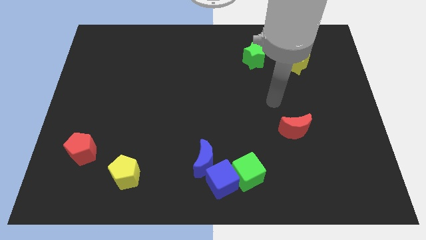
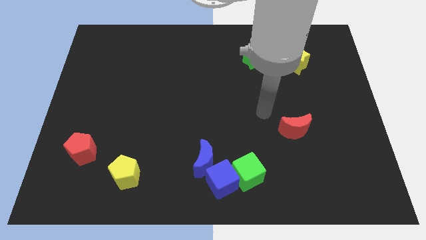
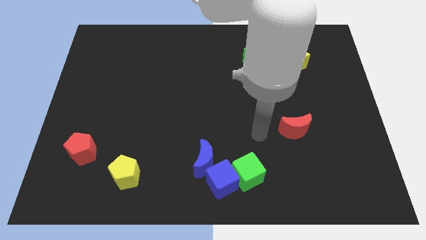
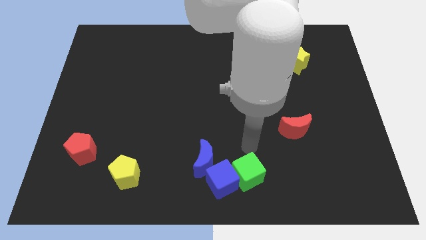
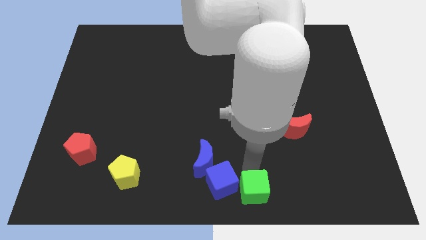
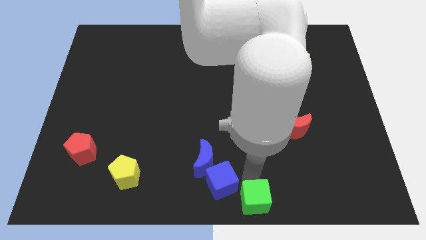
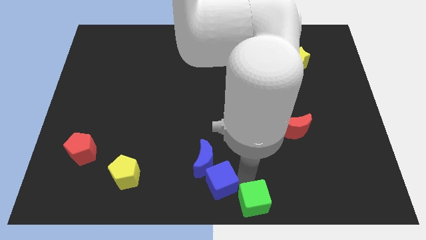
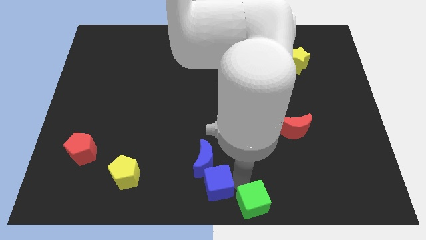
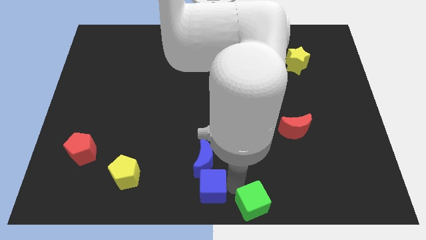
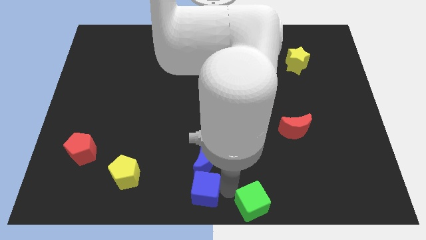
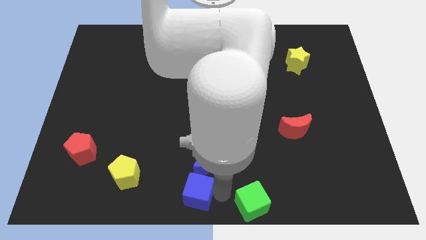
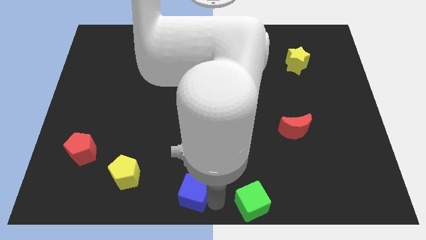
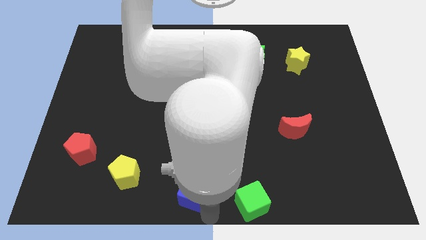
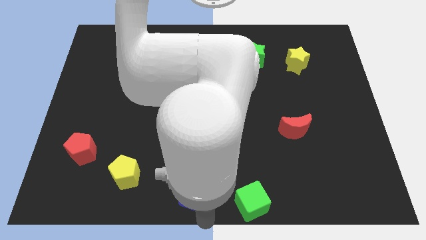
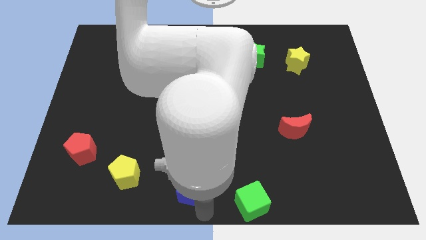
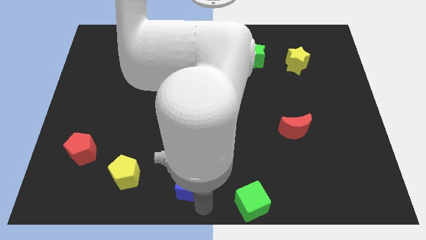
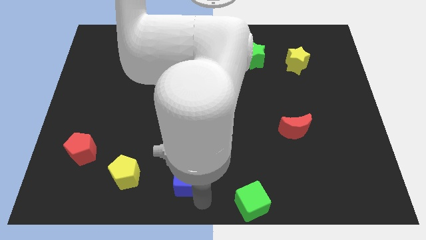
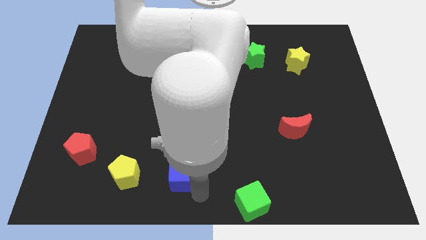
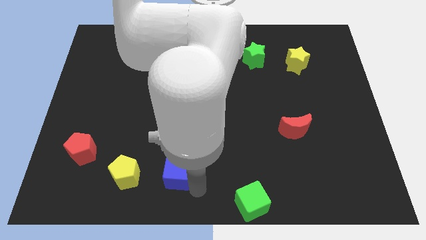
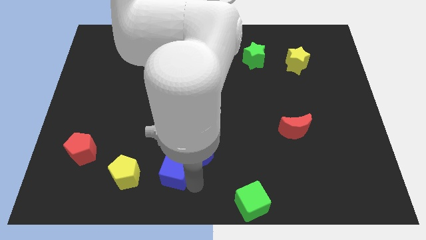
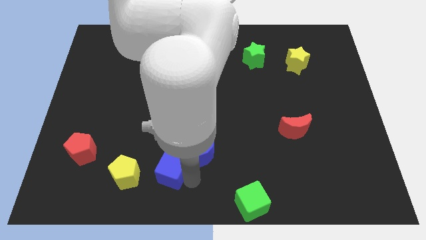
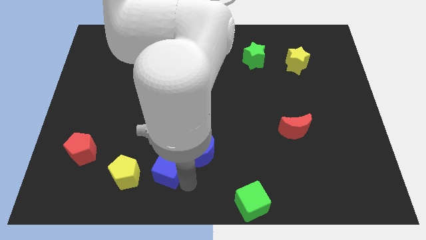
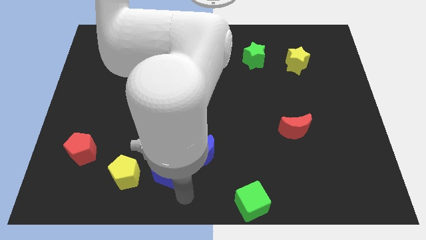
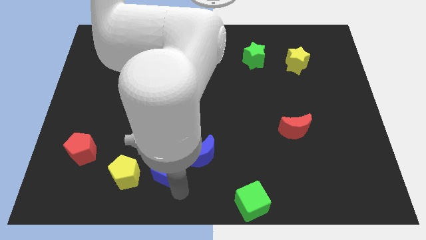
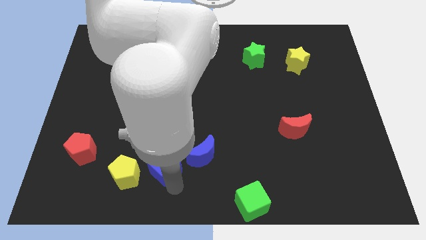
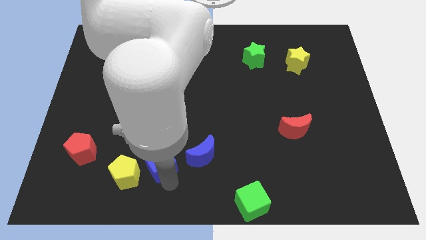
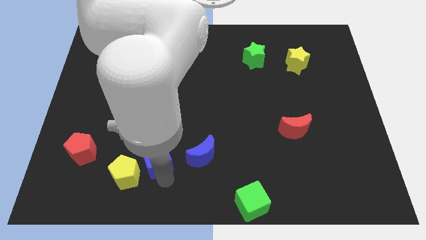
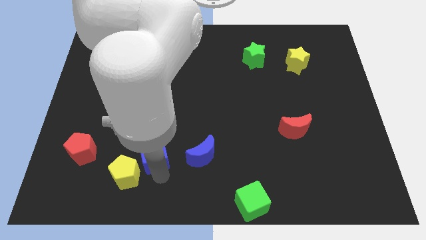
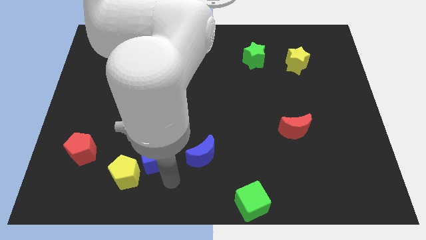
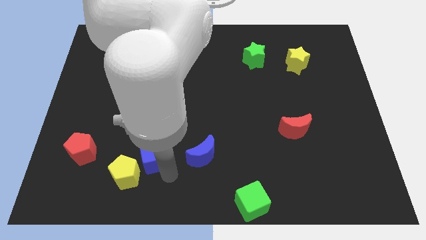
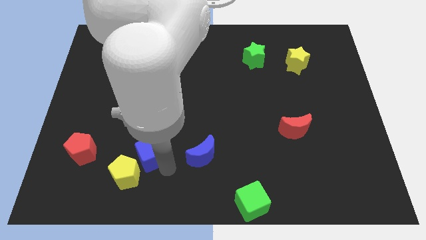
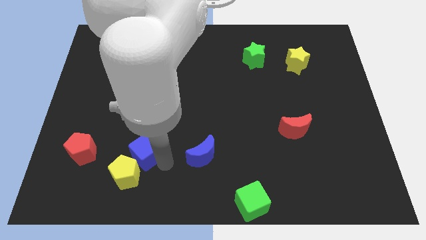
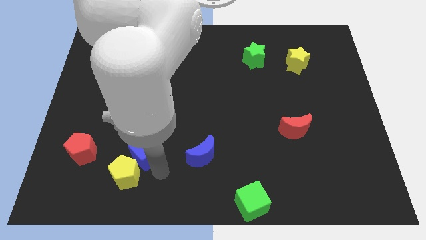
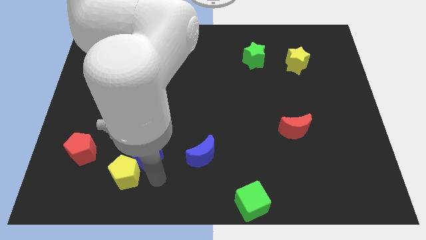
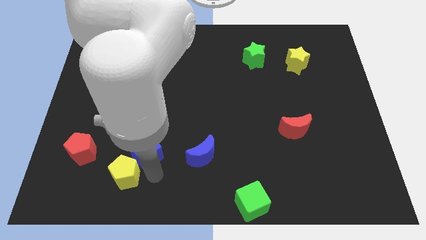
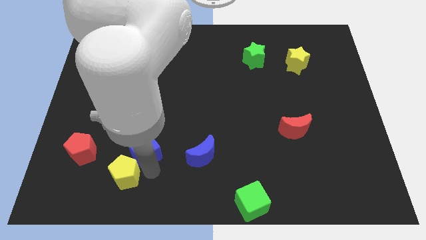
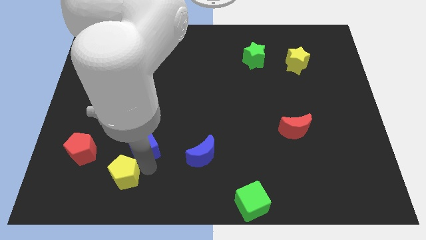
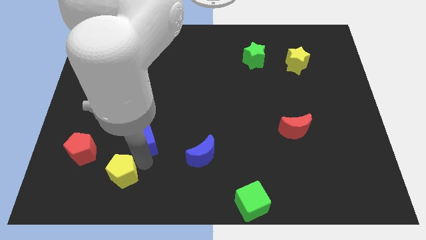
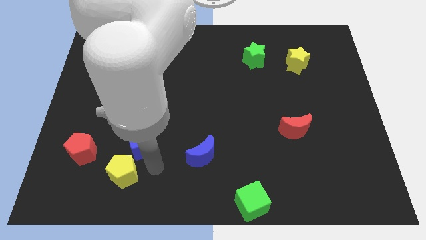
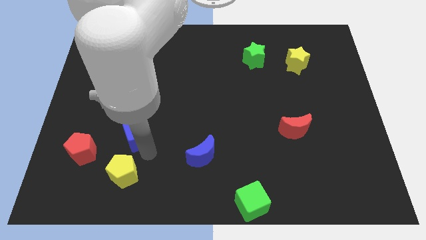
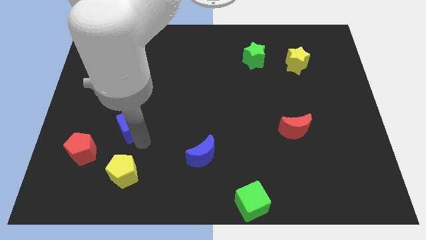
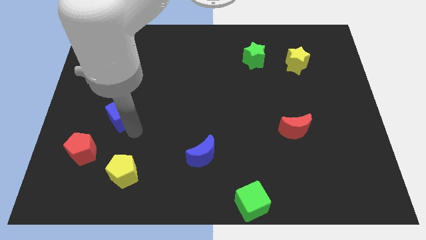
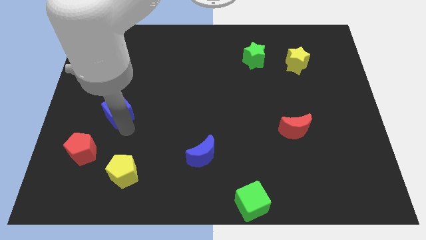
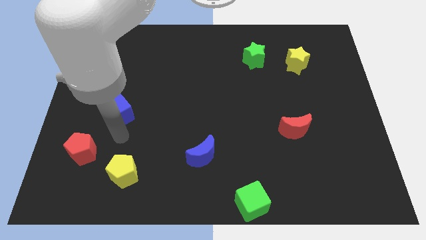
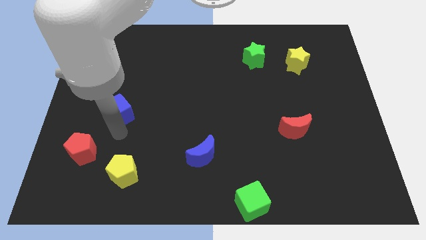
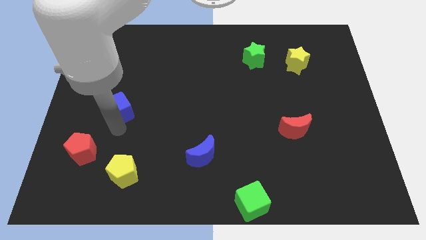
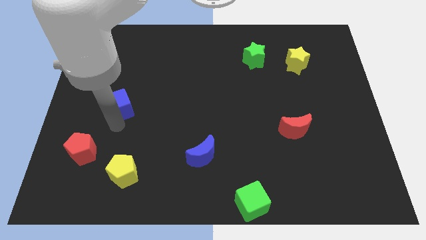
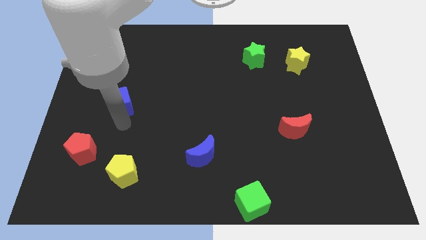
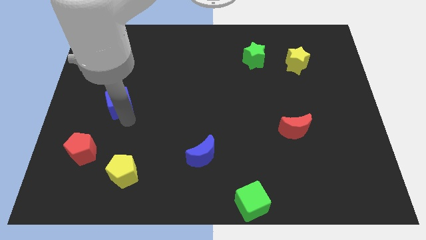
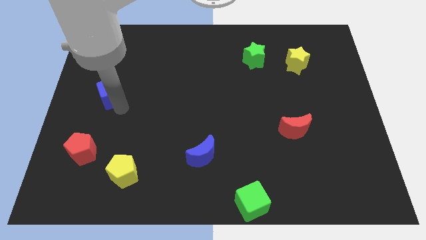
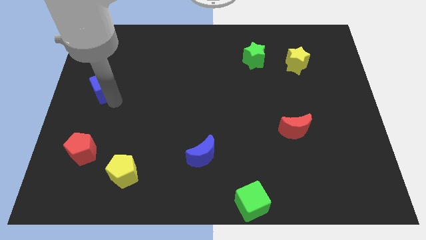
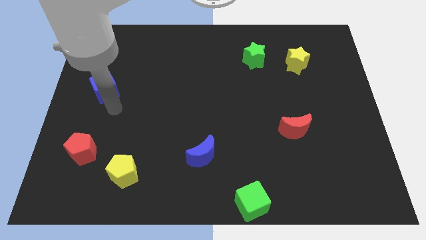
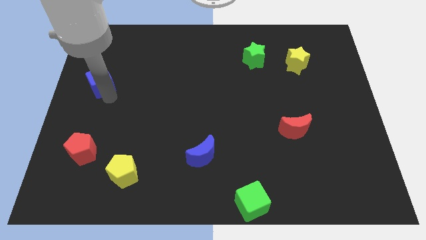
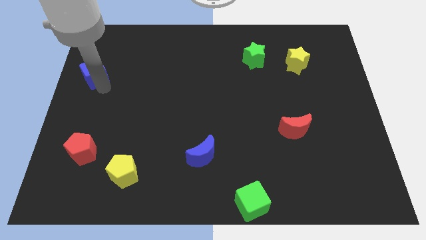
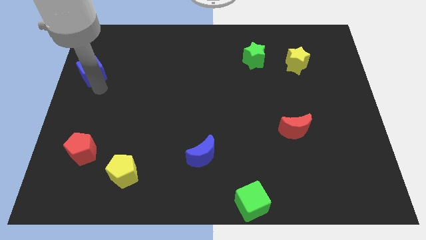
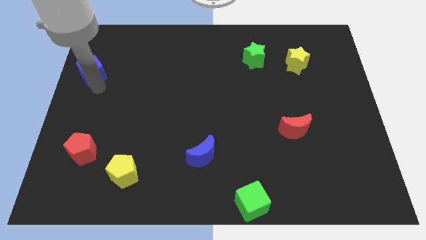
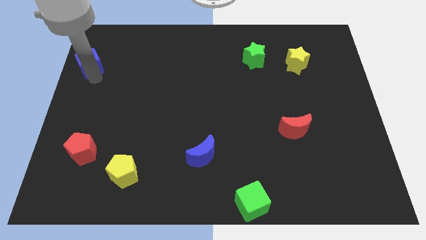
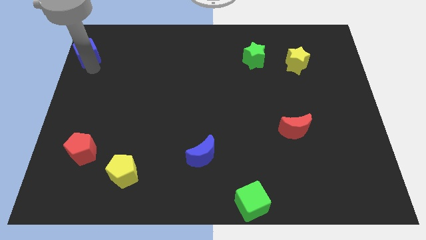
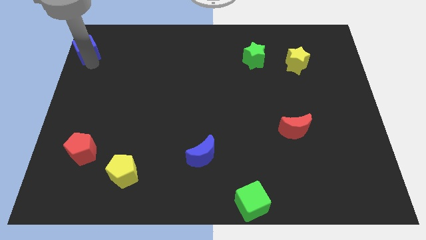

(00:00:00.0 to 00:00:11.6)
slide the blue cube to the upper left corner

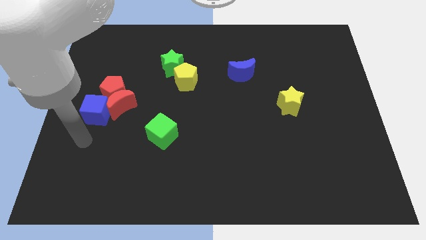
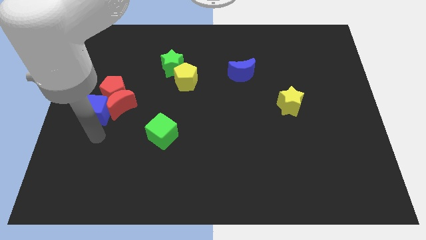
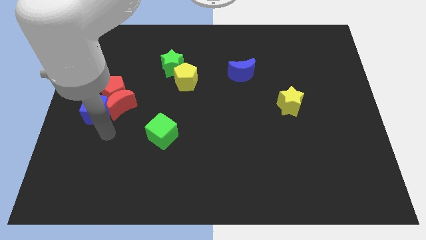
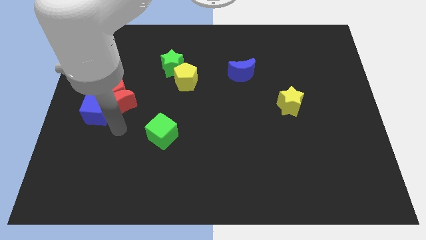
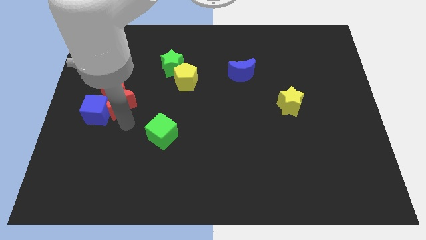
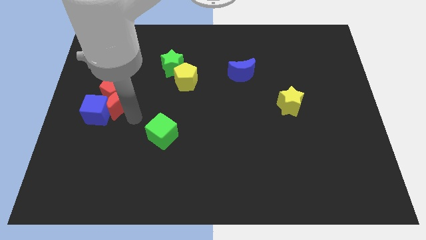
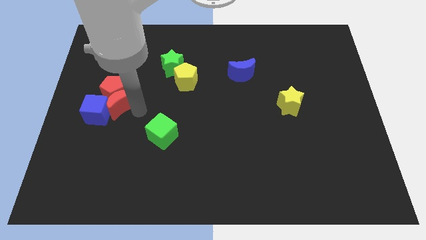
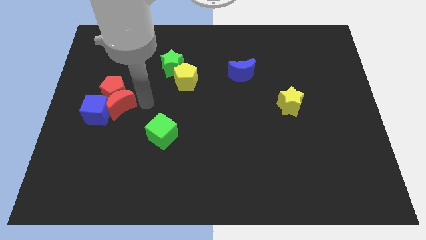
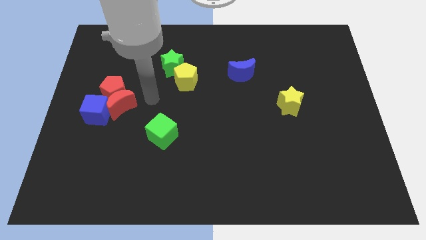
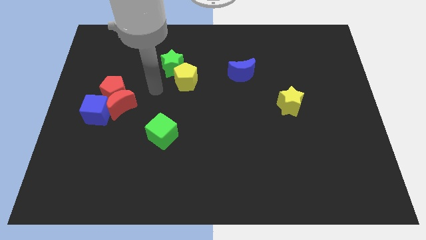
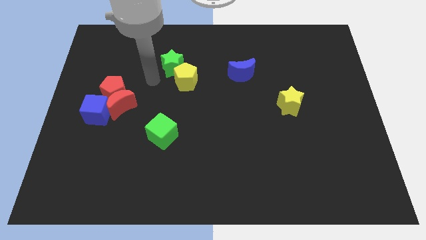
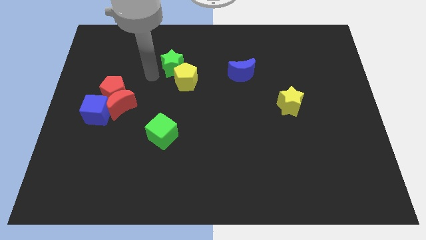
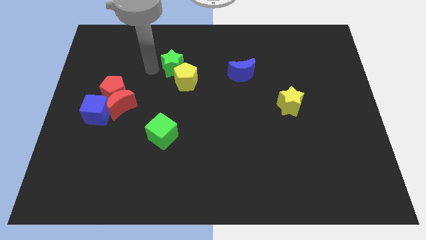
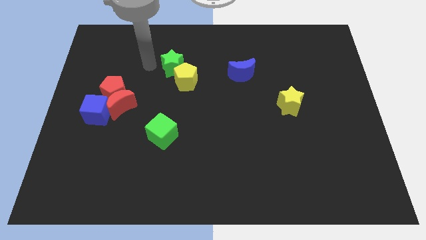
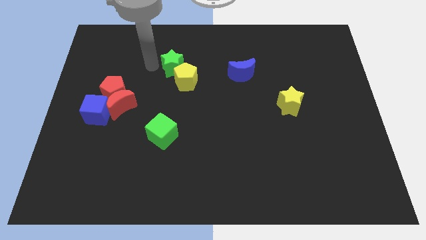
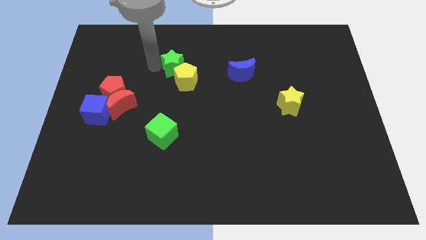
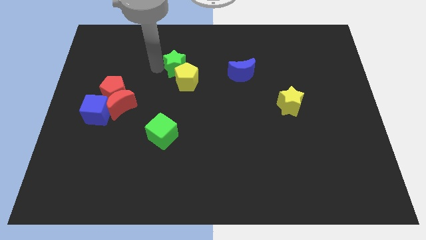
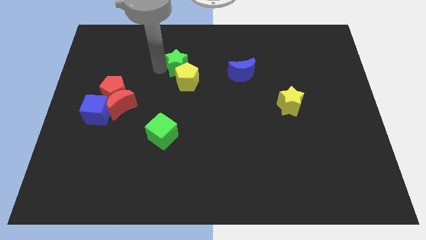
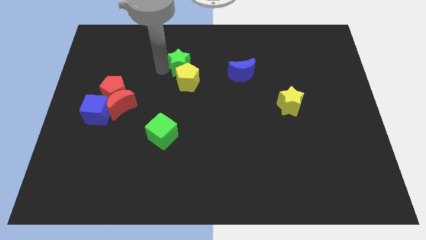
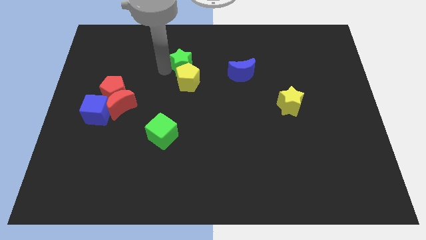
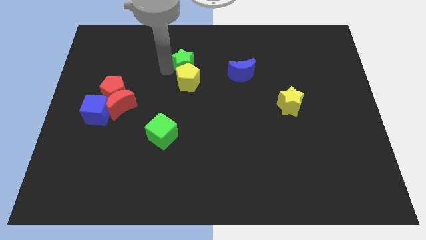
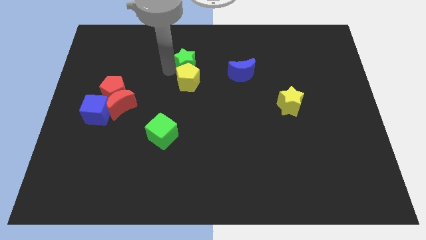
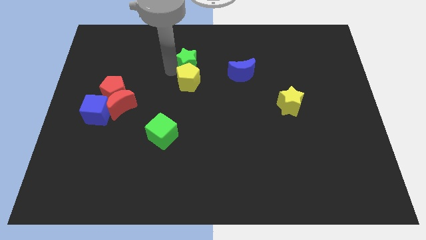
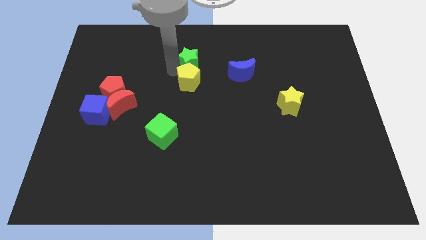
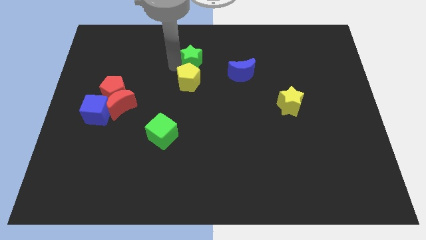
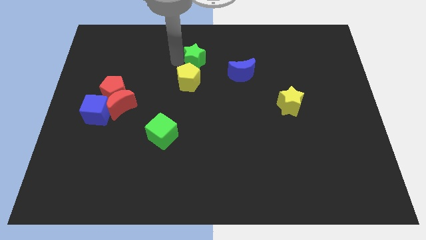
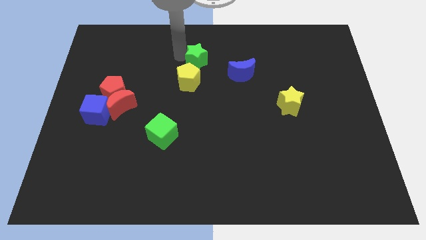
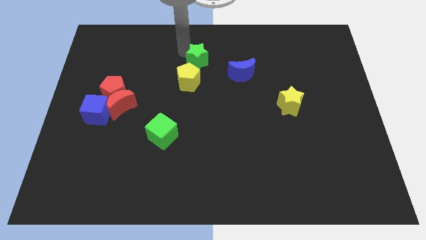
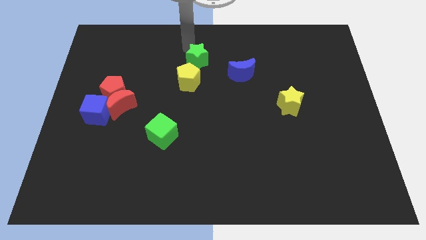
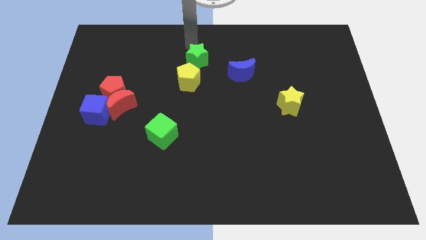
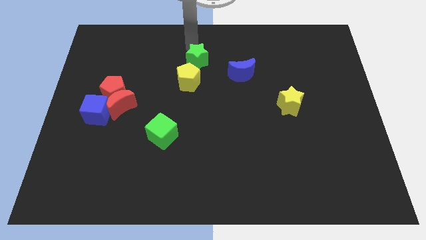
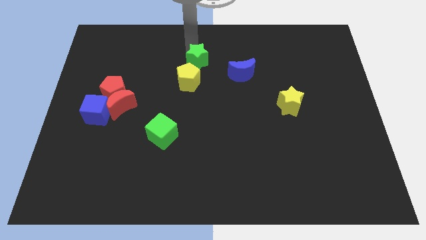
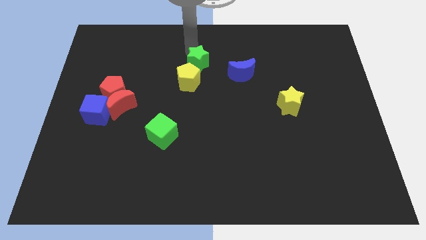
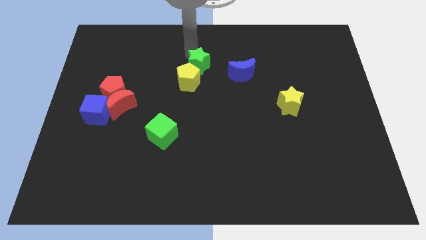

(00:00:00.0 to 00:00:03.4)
put the green star to the middle of the board
